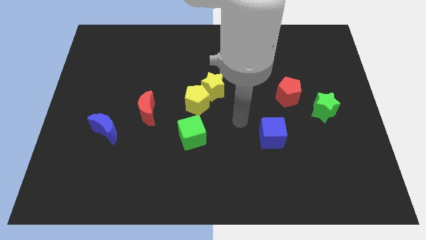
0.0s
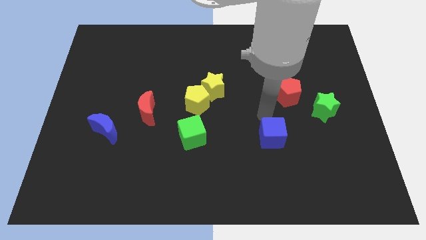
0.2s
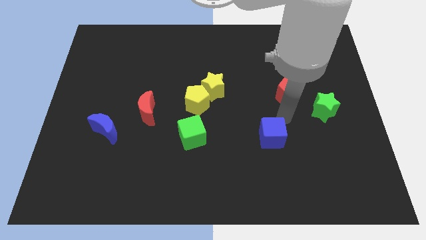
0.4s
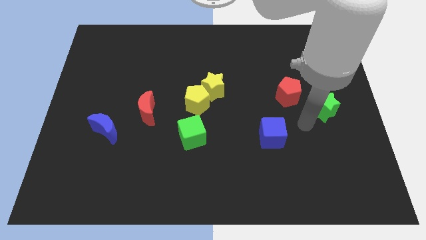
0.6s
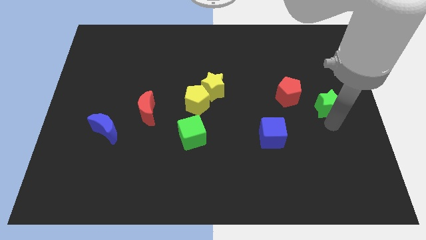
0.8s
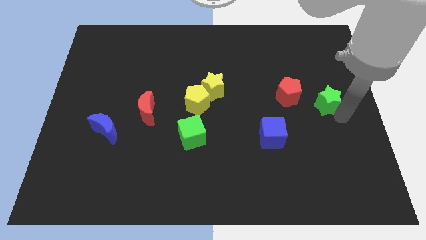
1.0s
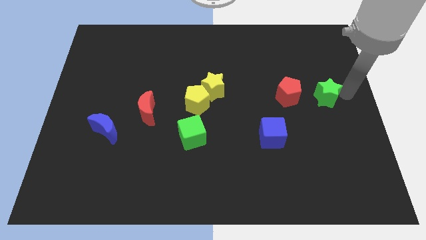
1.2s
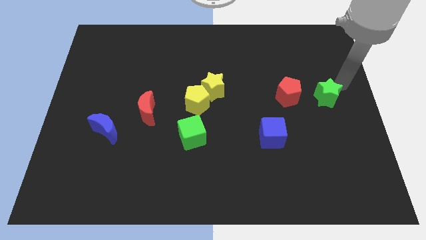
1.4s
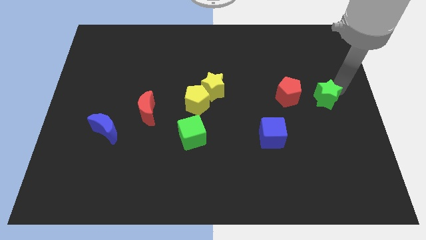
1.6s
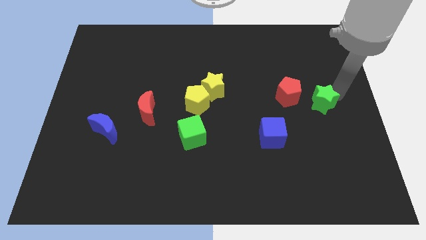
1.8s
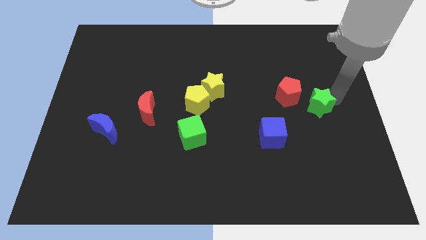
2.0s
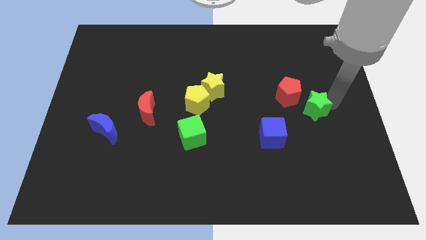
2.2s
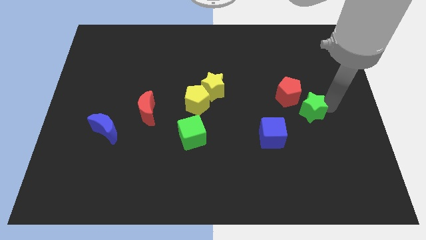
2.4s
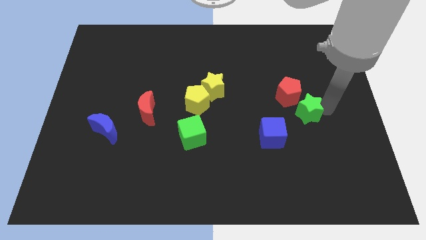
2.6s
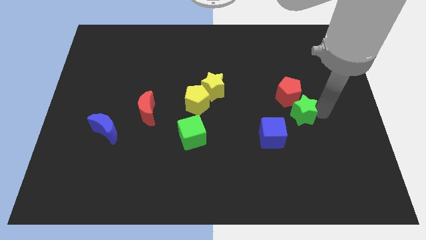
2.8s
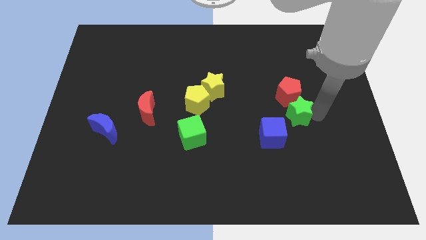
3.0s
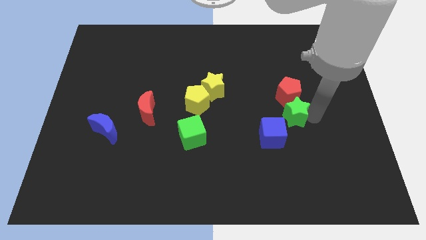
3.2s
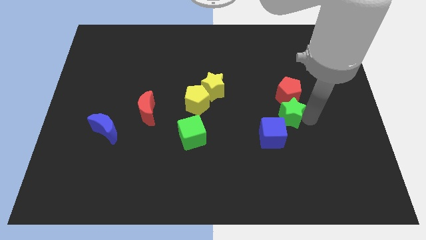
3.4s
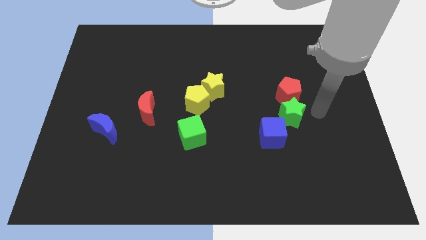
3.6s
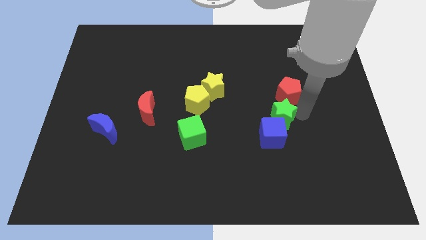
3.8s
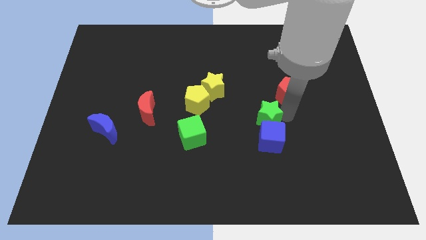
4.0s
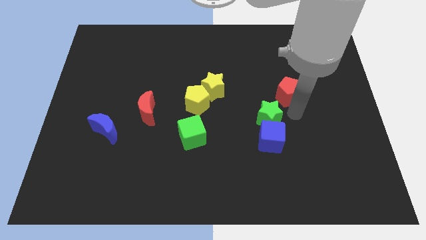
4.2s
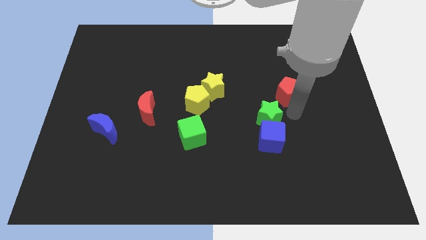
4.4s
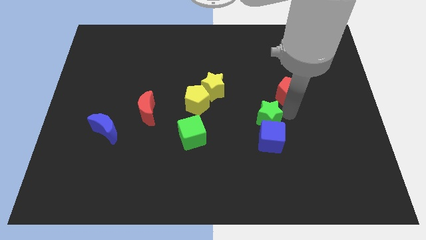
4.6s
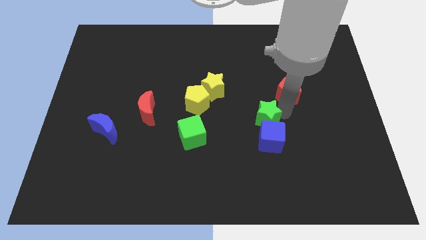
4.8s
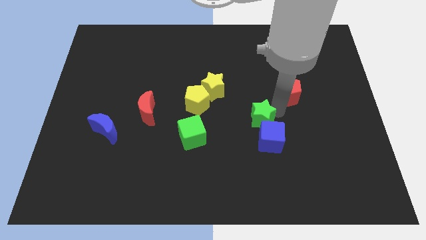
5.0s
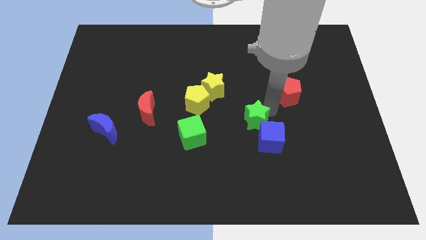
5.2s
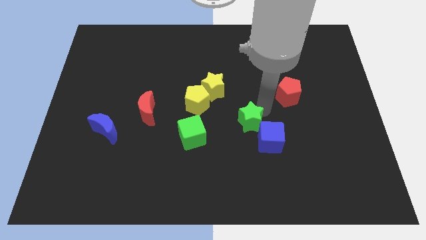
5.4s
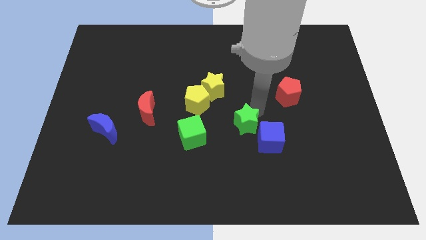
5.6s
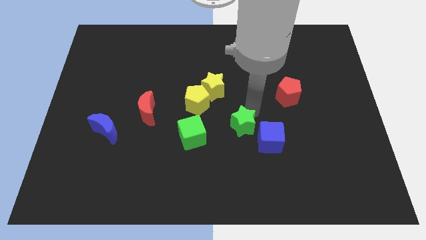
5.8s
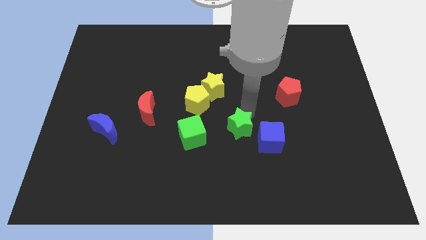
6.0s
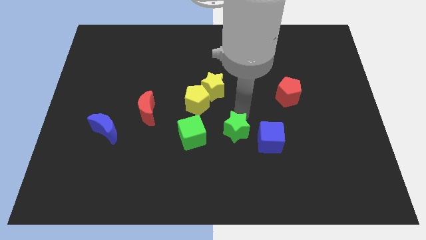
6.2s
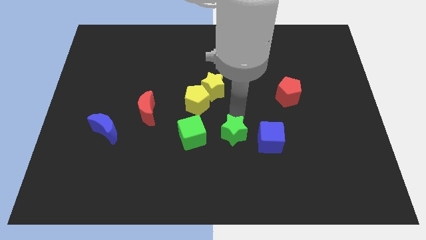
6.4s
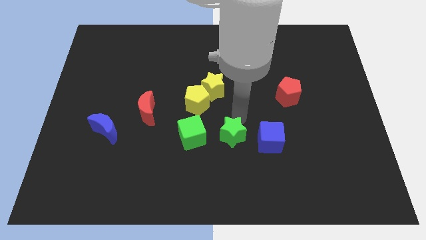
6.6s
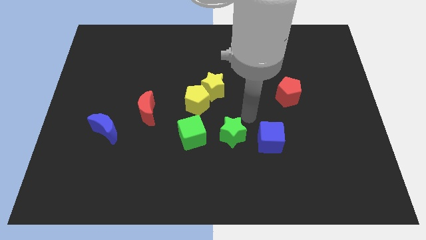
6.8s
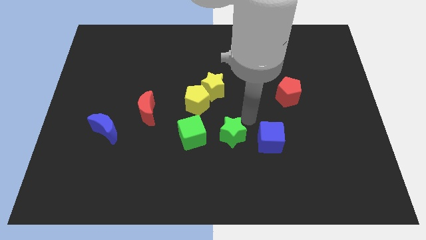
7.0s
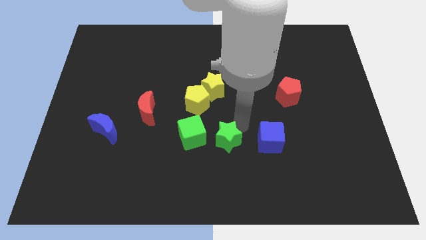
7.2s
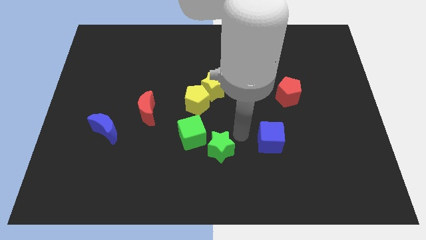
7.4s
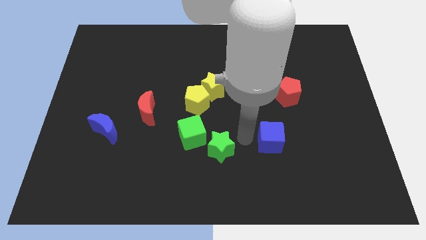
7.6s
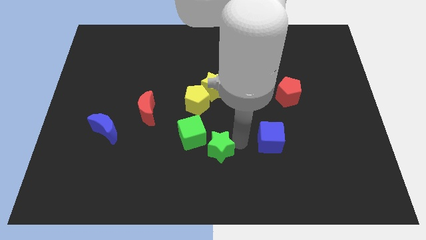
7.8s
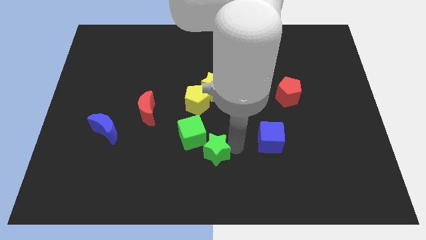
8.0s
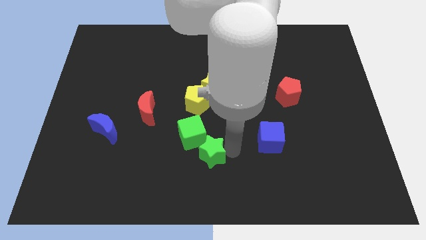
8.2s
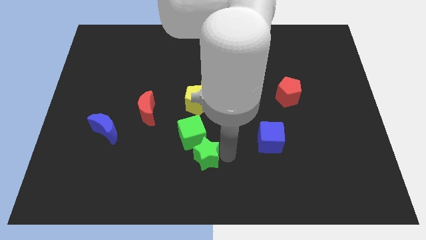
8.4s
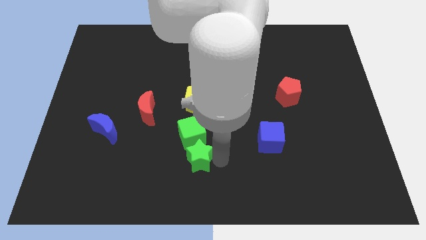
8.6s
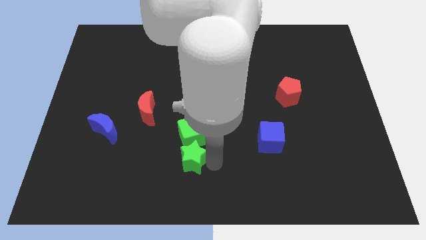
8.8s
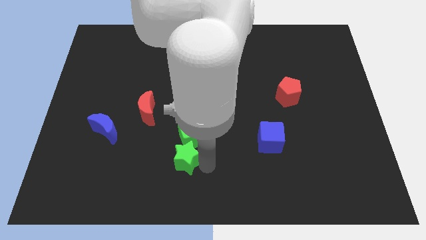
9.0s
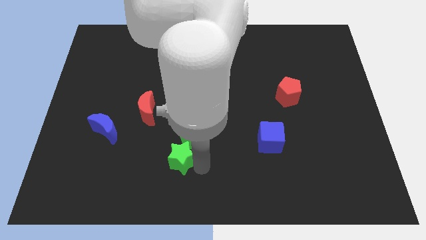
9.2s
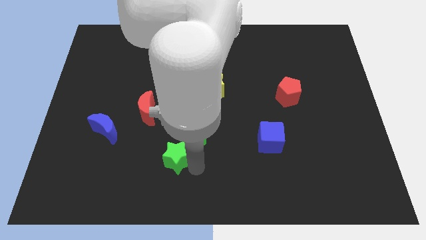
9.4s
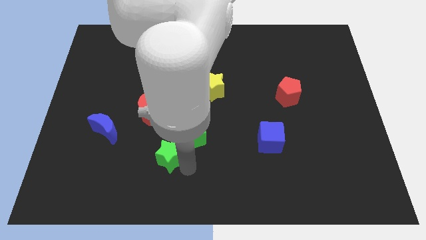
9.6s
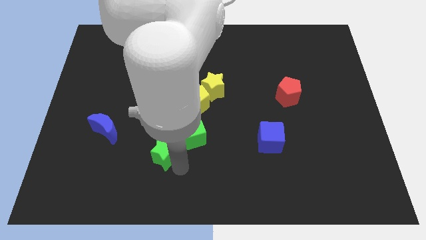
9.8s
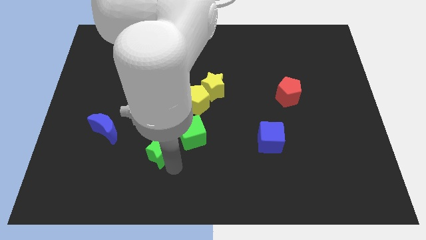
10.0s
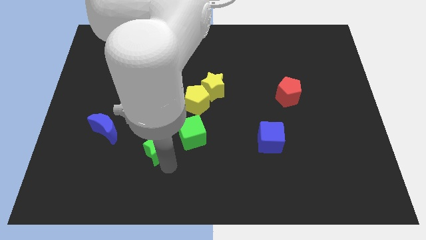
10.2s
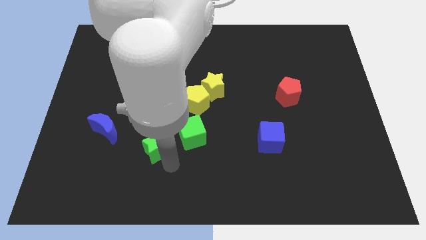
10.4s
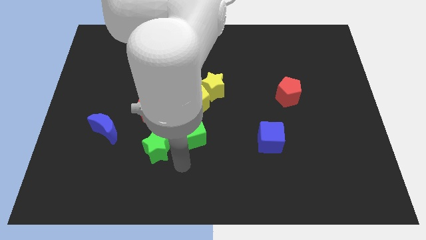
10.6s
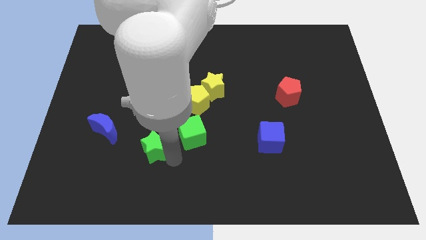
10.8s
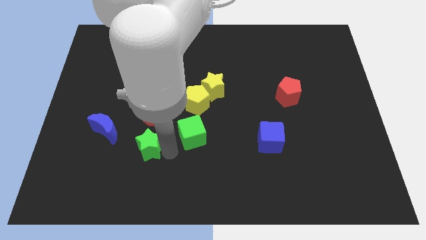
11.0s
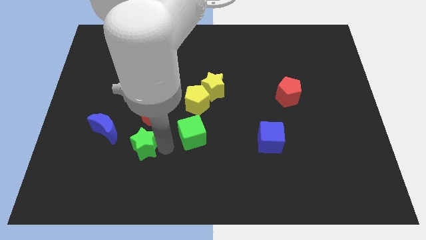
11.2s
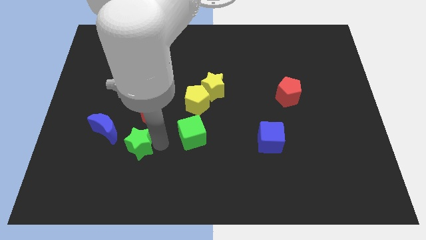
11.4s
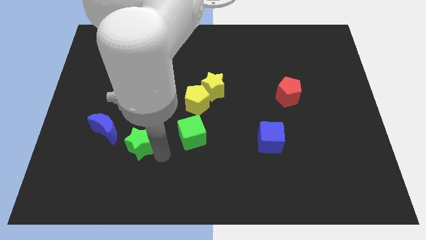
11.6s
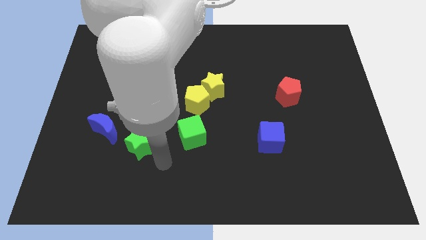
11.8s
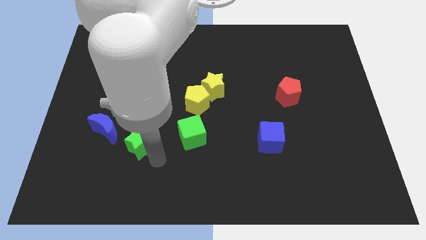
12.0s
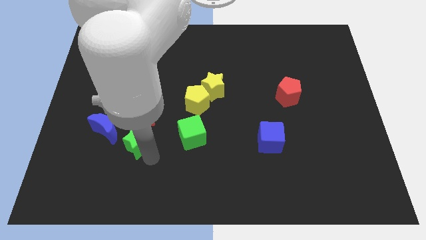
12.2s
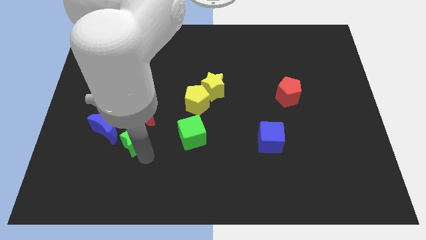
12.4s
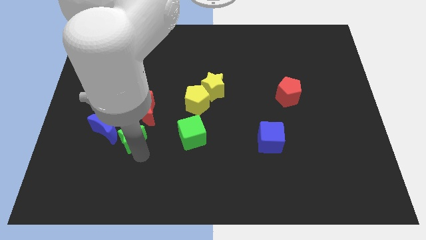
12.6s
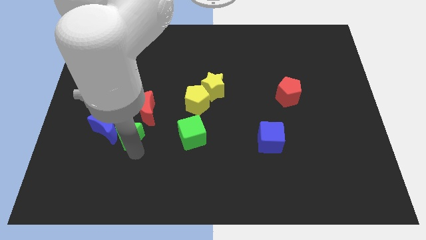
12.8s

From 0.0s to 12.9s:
slide the green star next to the blue moon
